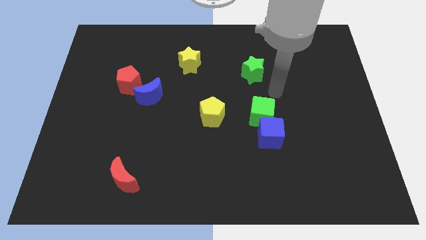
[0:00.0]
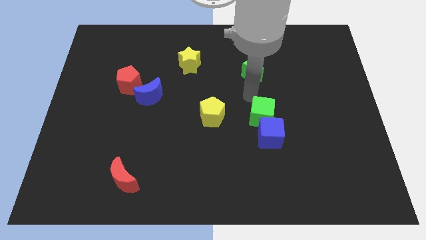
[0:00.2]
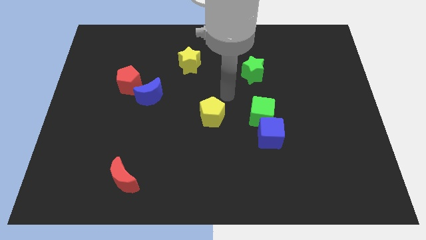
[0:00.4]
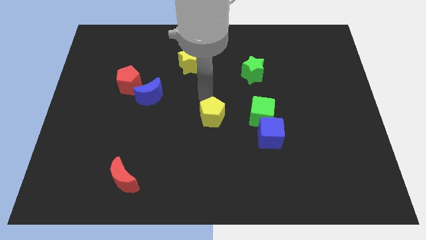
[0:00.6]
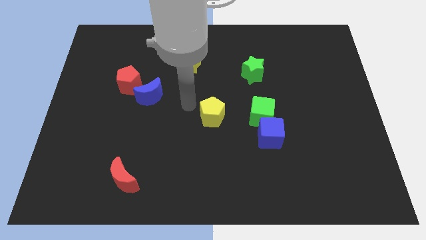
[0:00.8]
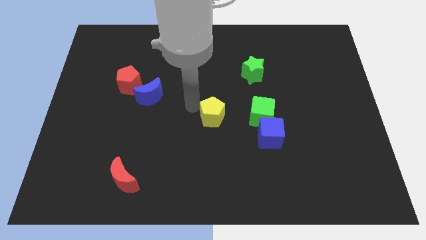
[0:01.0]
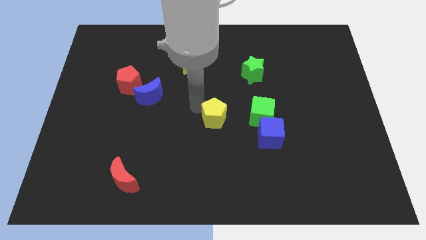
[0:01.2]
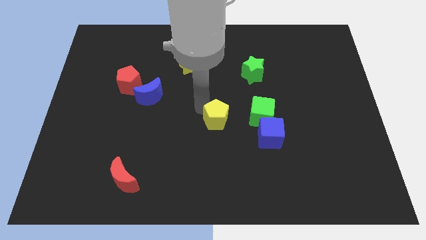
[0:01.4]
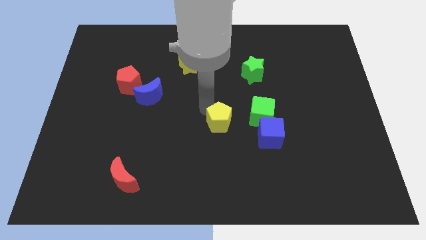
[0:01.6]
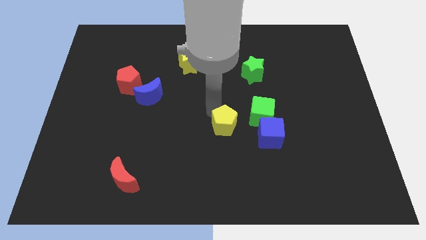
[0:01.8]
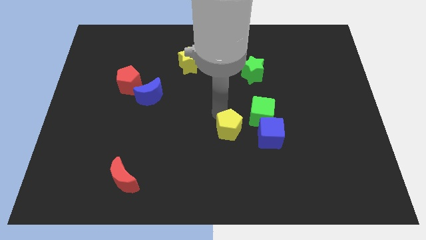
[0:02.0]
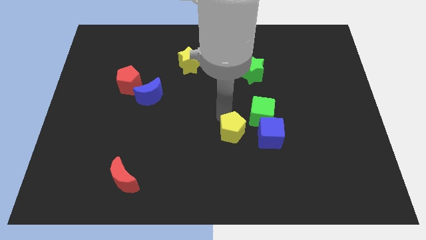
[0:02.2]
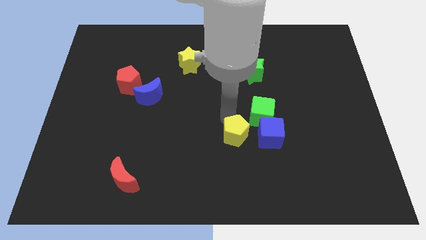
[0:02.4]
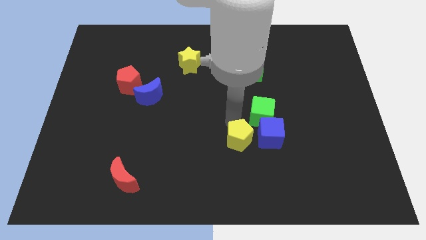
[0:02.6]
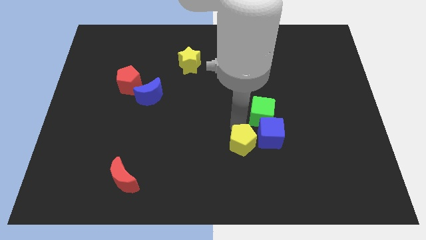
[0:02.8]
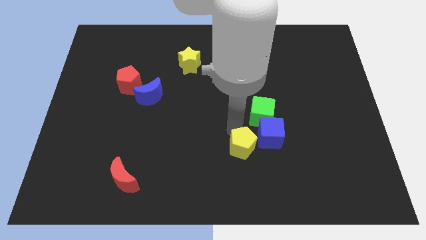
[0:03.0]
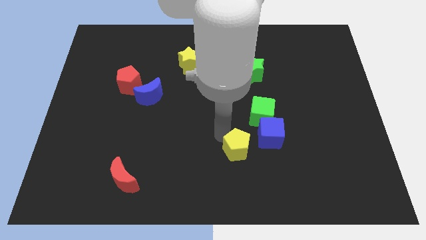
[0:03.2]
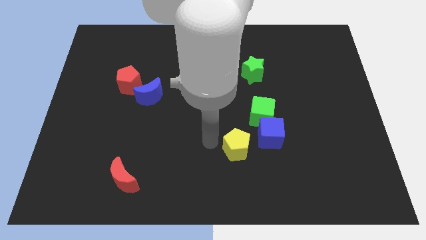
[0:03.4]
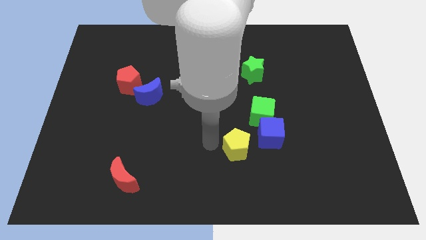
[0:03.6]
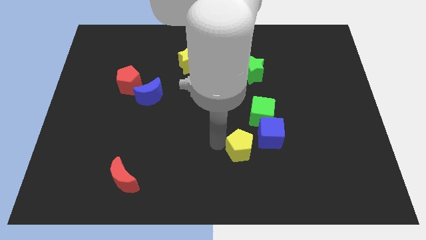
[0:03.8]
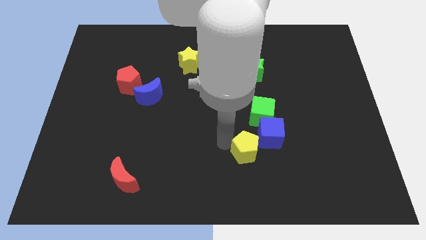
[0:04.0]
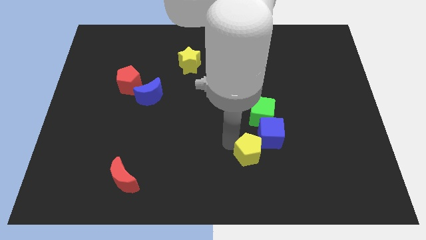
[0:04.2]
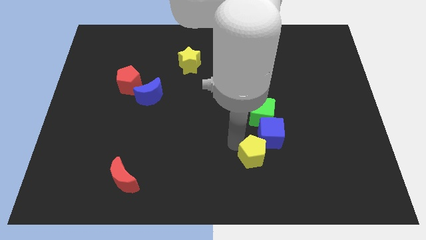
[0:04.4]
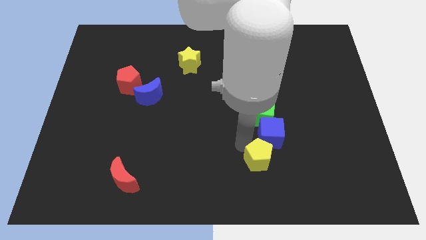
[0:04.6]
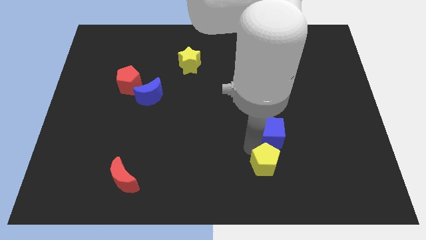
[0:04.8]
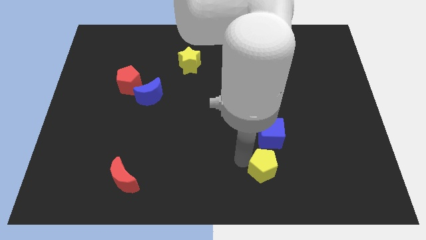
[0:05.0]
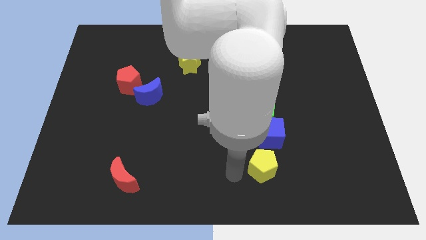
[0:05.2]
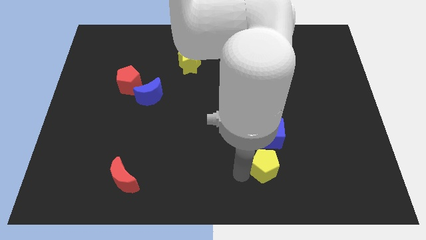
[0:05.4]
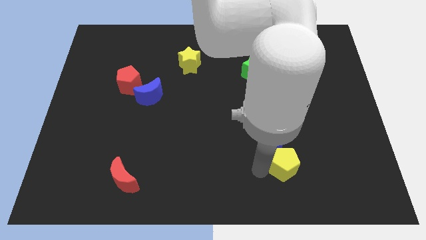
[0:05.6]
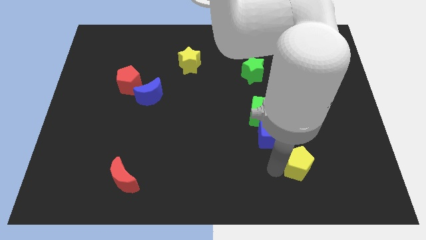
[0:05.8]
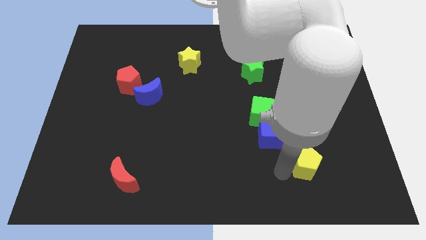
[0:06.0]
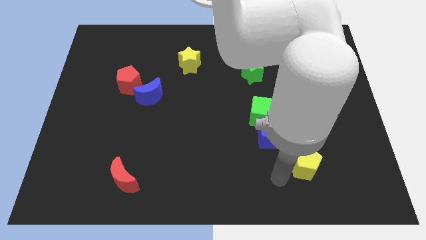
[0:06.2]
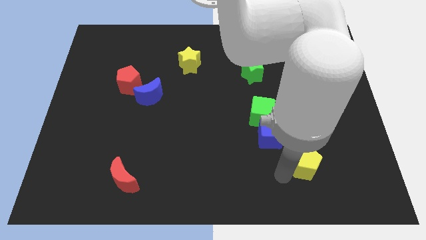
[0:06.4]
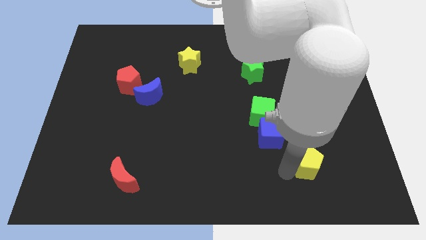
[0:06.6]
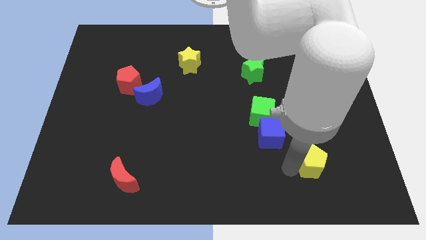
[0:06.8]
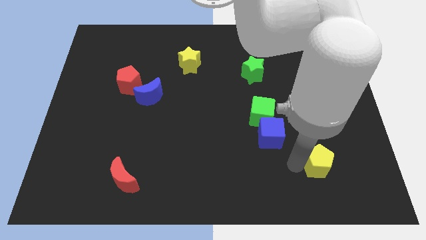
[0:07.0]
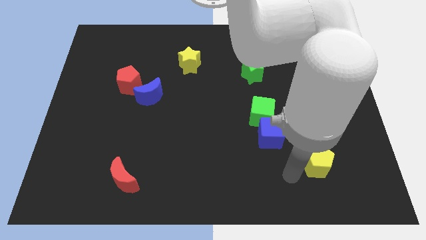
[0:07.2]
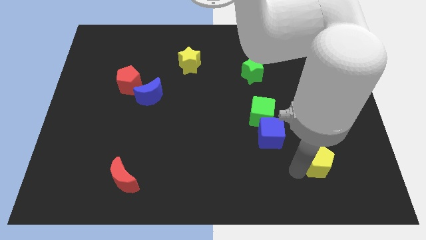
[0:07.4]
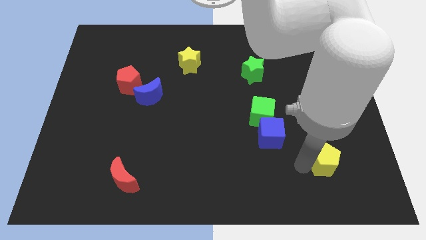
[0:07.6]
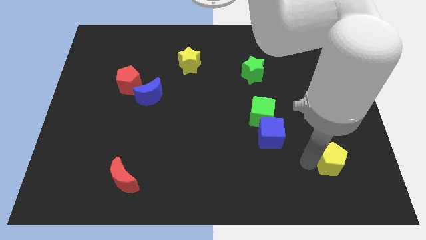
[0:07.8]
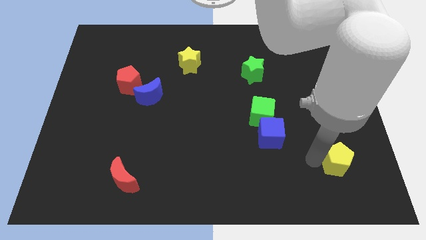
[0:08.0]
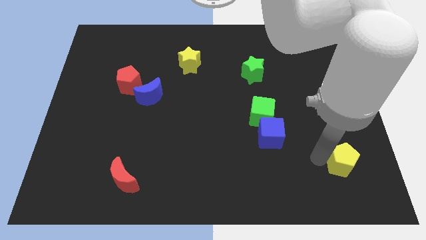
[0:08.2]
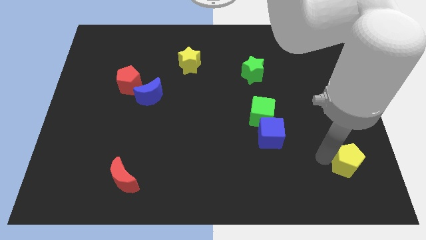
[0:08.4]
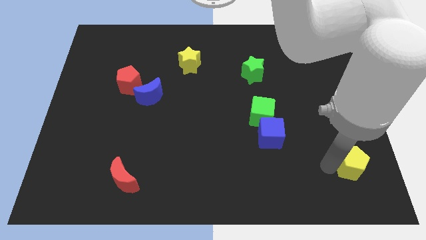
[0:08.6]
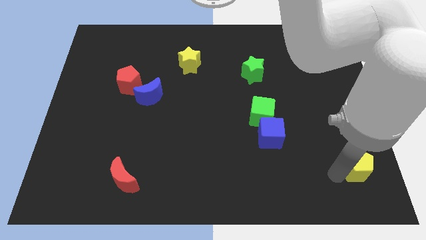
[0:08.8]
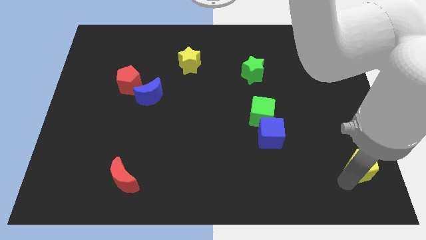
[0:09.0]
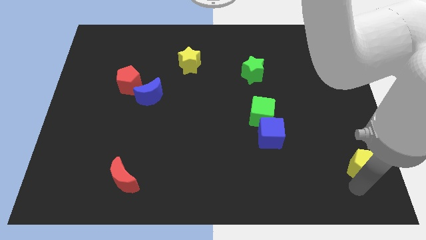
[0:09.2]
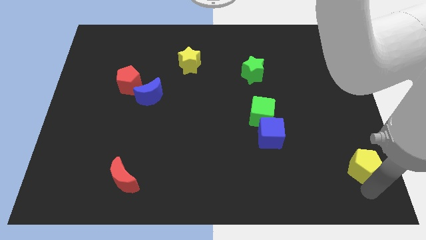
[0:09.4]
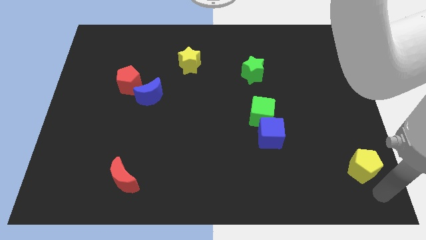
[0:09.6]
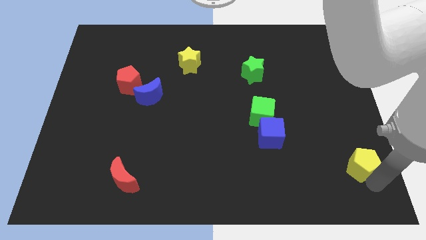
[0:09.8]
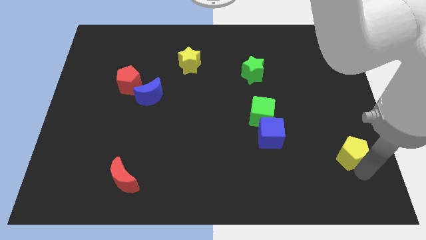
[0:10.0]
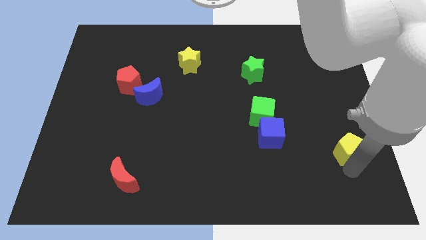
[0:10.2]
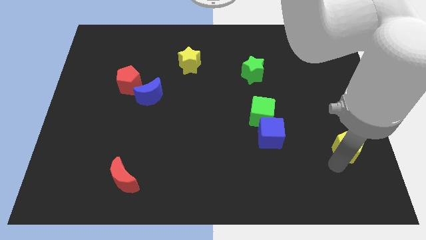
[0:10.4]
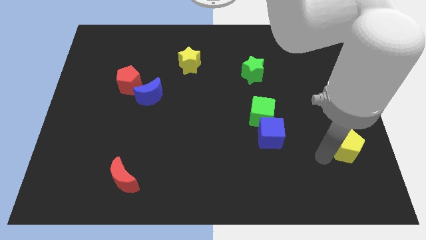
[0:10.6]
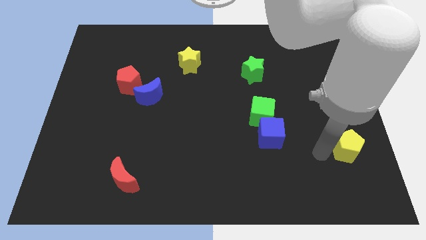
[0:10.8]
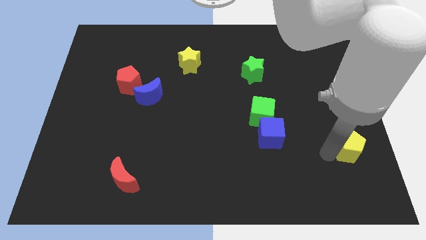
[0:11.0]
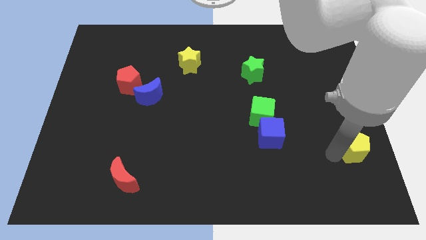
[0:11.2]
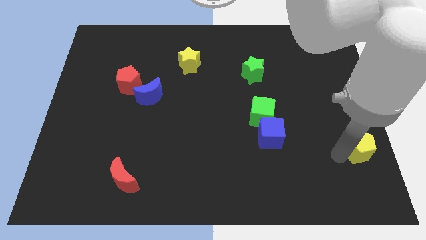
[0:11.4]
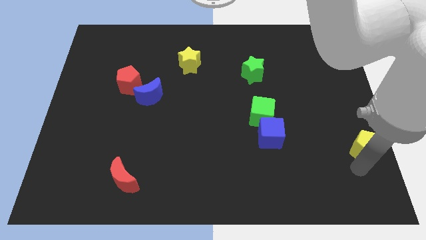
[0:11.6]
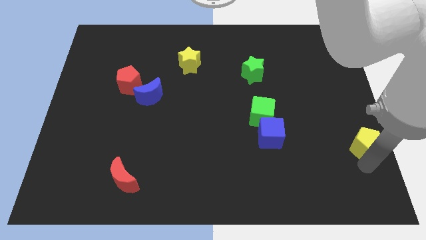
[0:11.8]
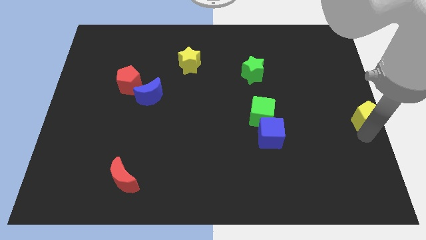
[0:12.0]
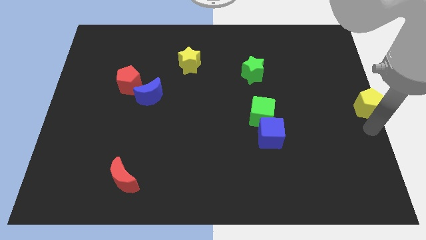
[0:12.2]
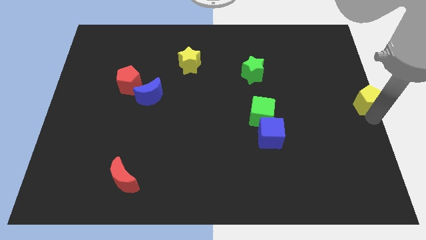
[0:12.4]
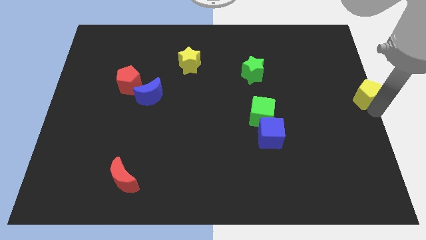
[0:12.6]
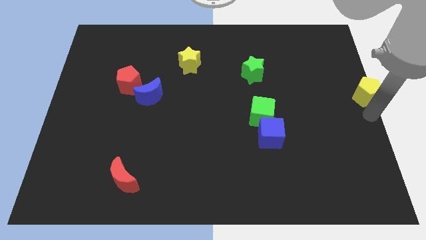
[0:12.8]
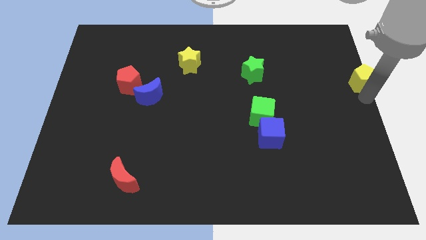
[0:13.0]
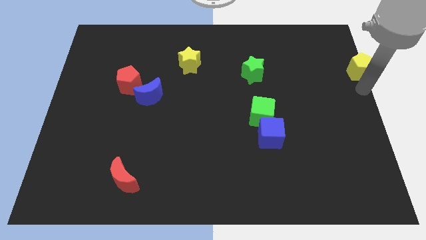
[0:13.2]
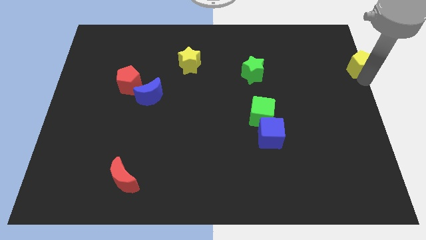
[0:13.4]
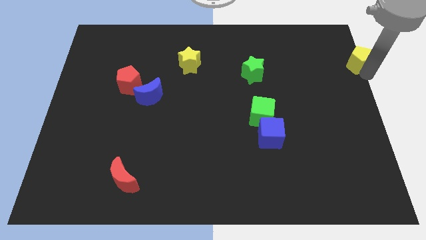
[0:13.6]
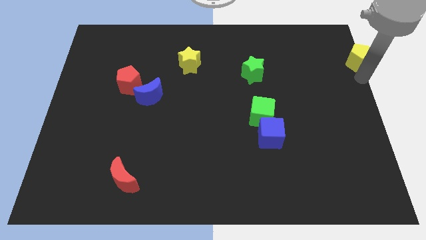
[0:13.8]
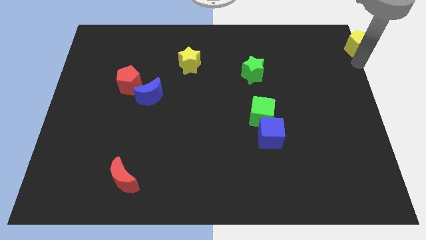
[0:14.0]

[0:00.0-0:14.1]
move the yellow pentagon to the upper right corner
